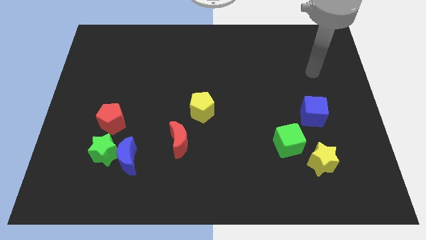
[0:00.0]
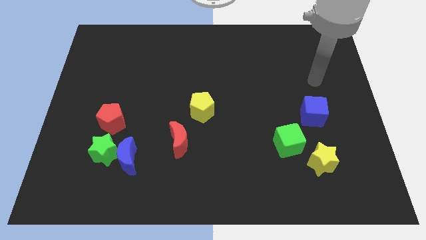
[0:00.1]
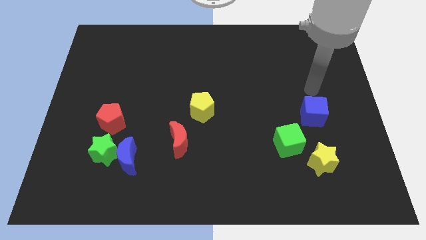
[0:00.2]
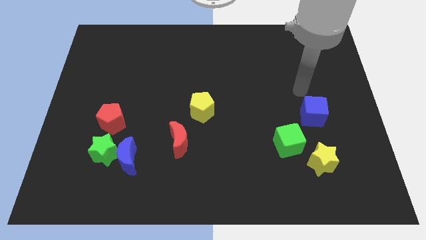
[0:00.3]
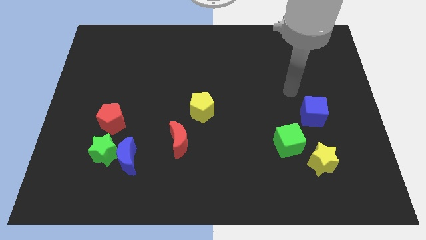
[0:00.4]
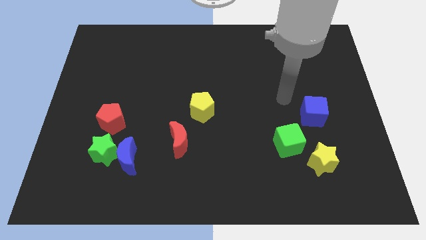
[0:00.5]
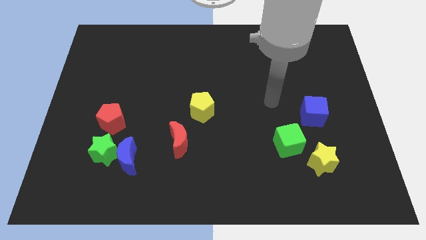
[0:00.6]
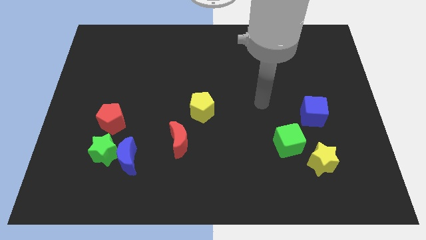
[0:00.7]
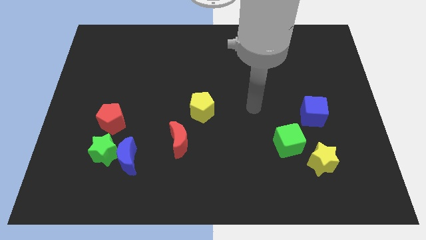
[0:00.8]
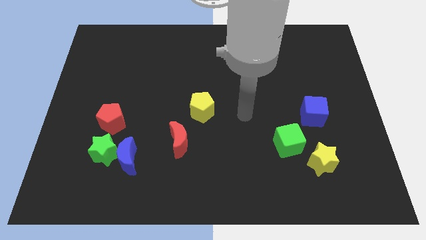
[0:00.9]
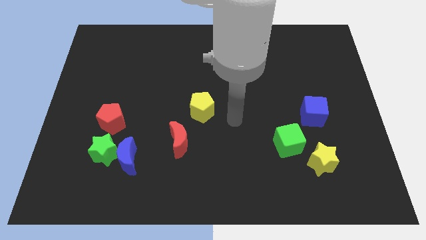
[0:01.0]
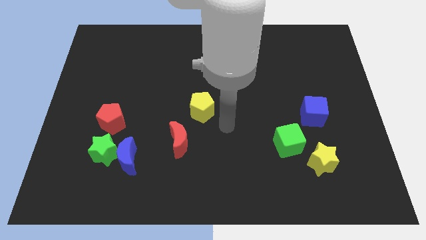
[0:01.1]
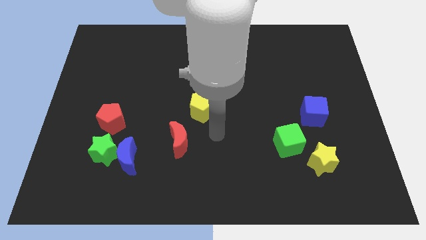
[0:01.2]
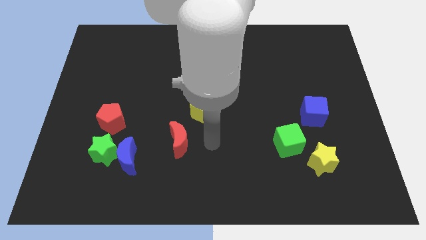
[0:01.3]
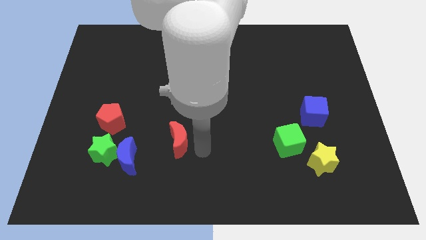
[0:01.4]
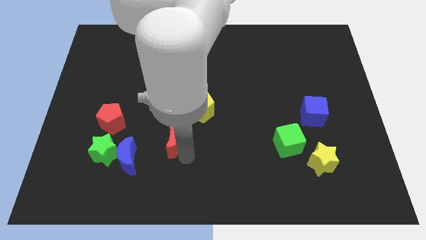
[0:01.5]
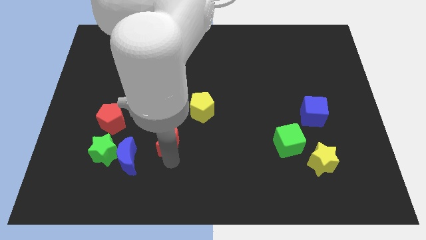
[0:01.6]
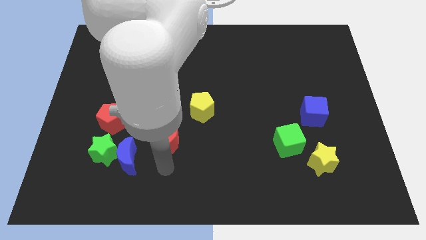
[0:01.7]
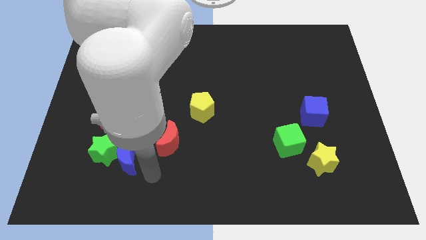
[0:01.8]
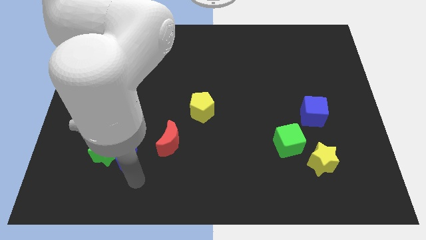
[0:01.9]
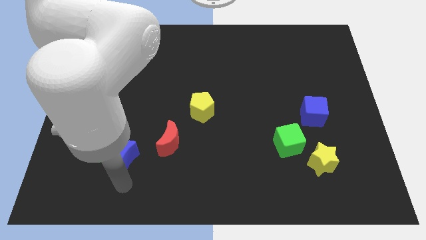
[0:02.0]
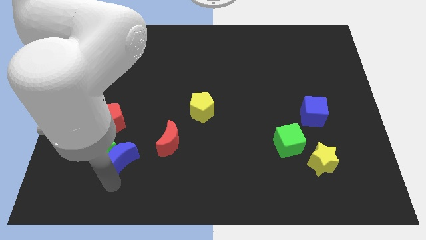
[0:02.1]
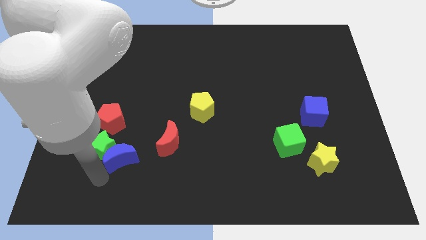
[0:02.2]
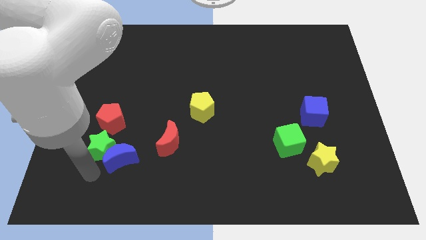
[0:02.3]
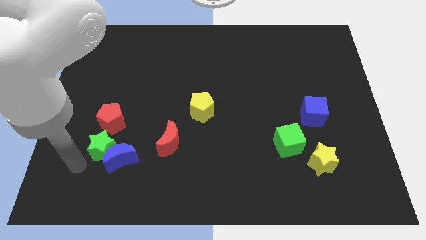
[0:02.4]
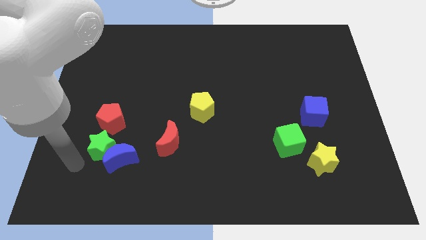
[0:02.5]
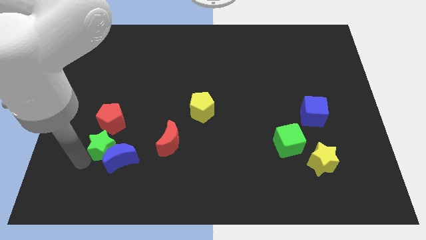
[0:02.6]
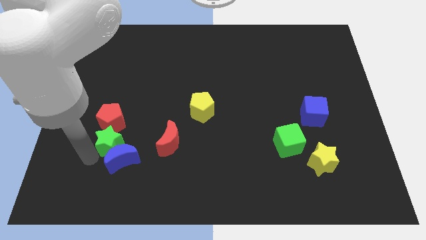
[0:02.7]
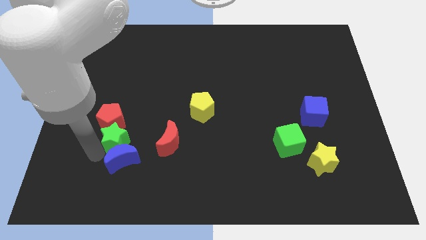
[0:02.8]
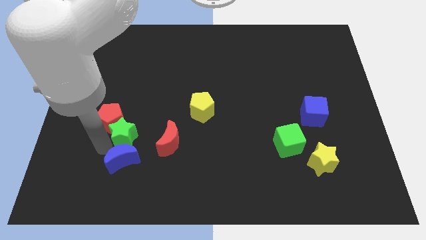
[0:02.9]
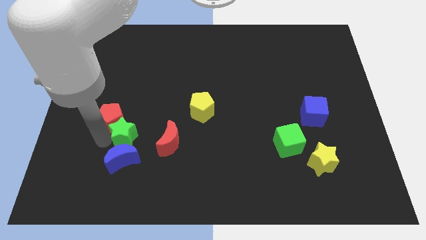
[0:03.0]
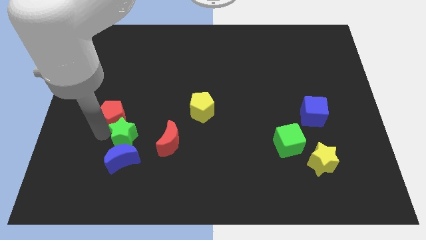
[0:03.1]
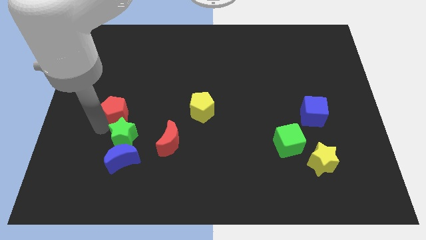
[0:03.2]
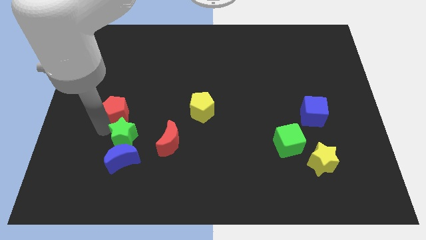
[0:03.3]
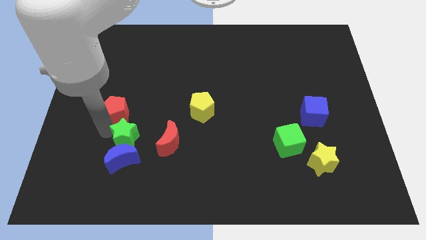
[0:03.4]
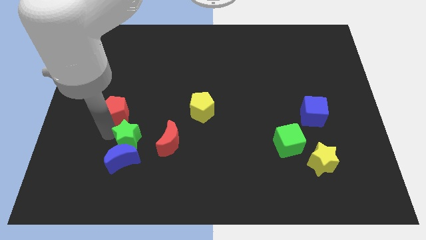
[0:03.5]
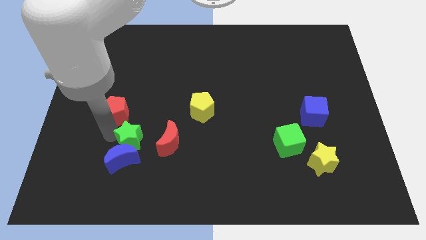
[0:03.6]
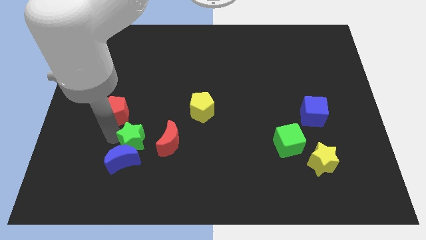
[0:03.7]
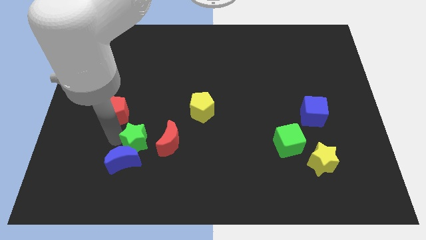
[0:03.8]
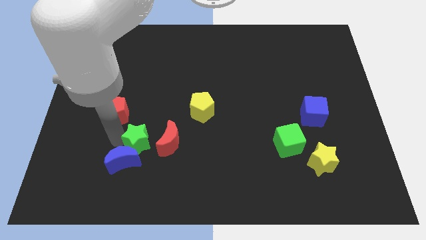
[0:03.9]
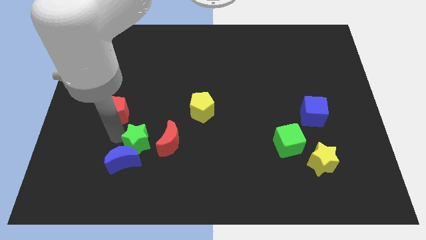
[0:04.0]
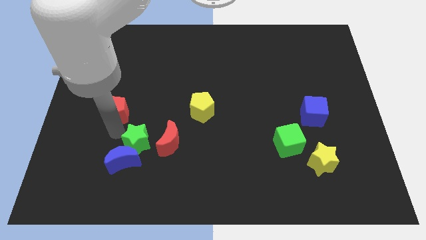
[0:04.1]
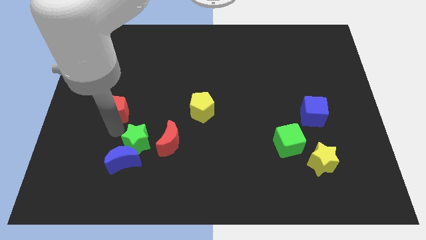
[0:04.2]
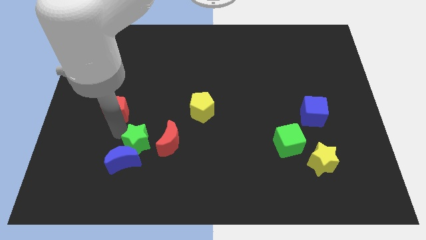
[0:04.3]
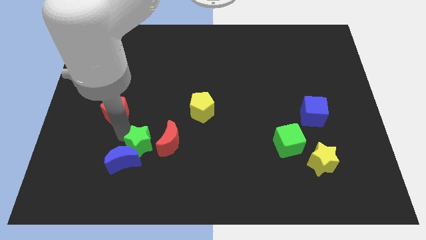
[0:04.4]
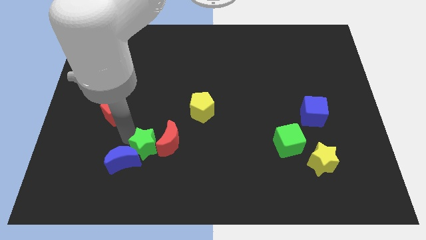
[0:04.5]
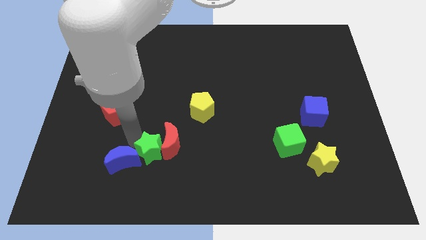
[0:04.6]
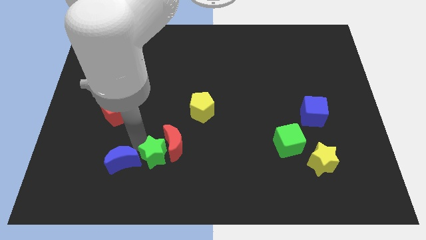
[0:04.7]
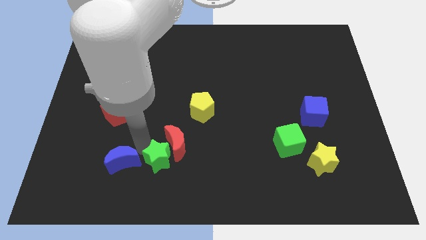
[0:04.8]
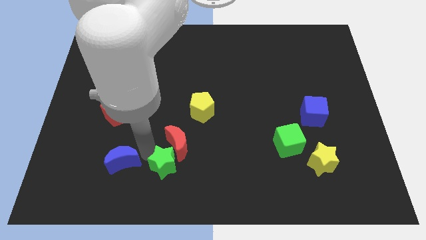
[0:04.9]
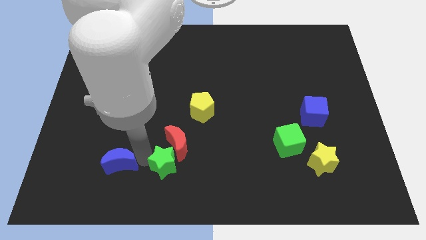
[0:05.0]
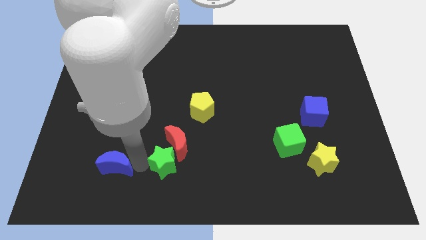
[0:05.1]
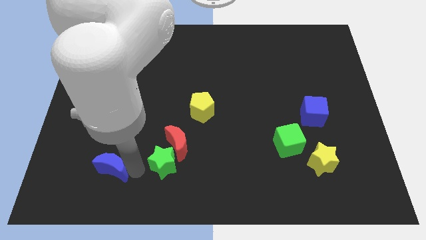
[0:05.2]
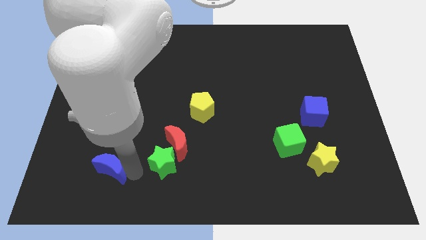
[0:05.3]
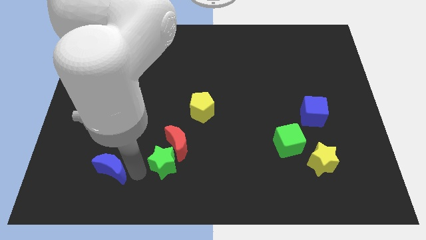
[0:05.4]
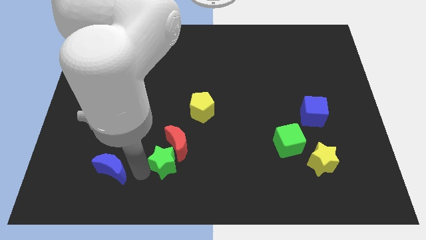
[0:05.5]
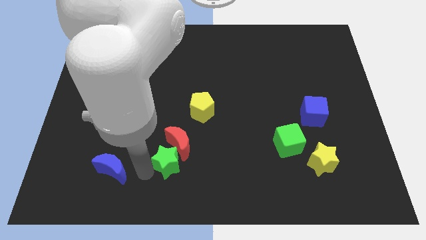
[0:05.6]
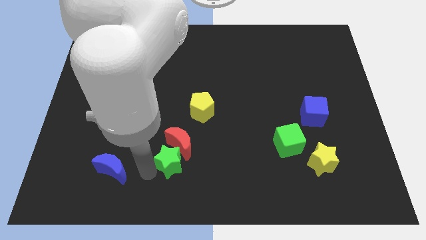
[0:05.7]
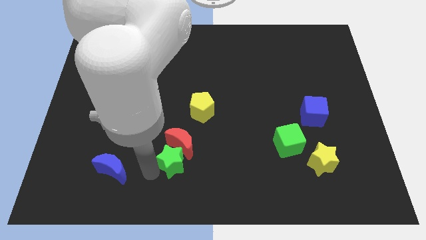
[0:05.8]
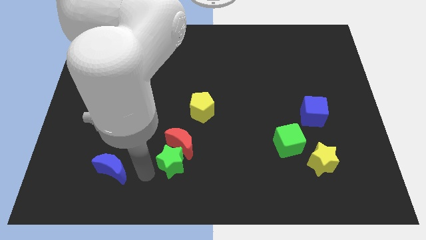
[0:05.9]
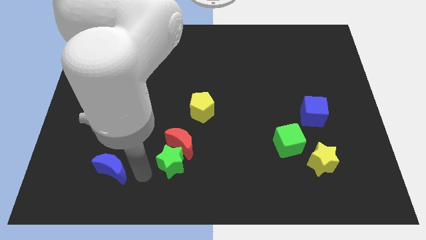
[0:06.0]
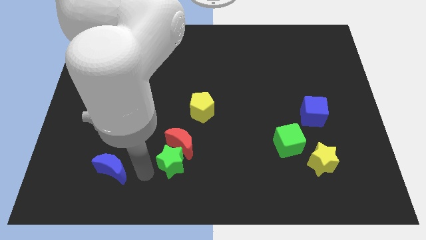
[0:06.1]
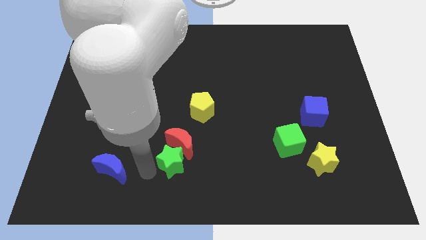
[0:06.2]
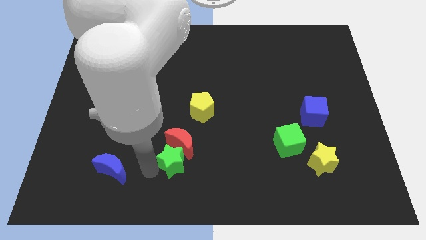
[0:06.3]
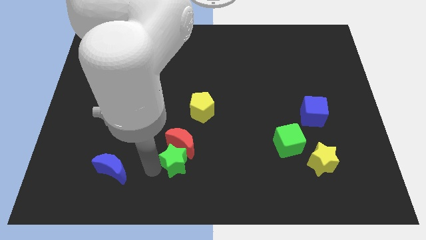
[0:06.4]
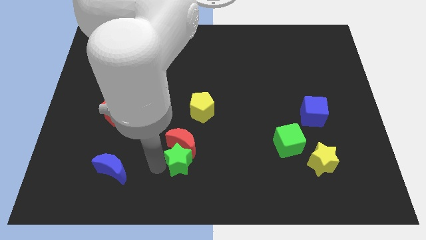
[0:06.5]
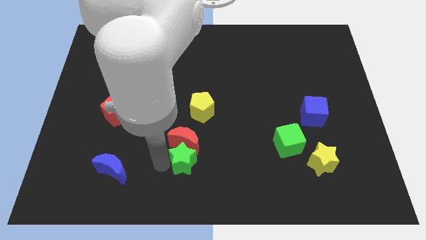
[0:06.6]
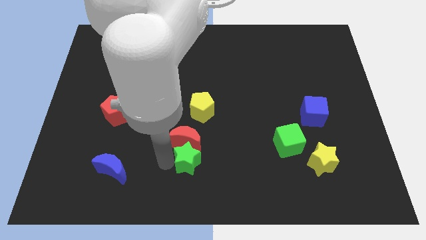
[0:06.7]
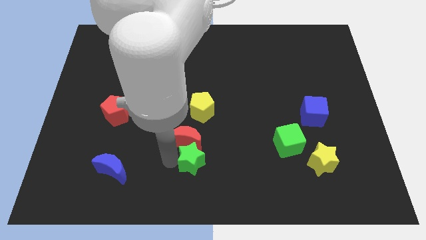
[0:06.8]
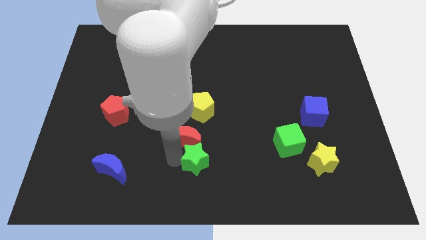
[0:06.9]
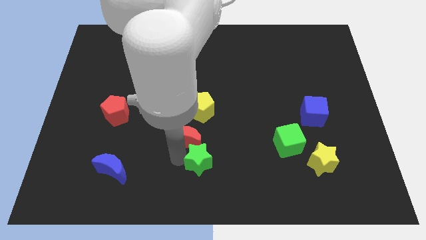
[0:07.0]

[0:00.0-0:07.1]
push the green star to the right

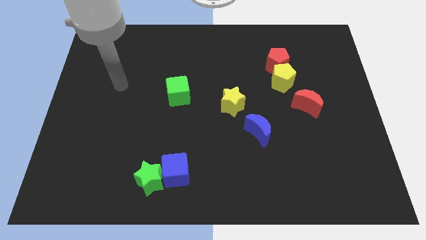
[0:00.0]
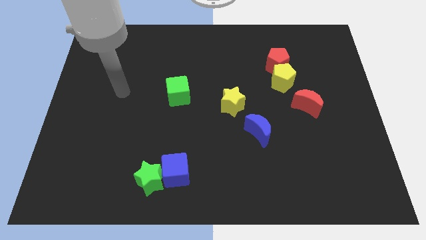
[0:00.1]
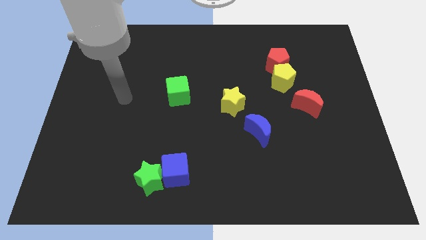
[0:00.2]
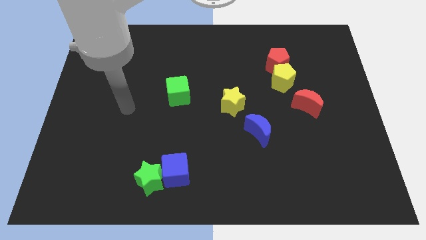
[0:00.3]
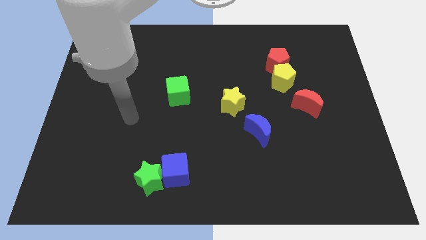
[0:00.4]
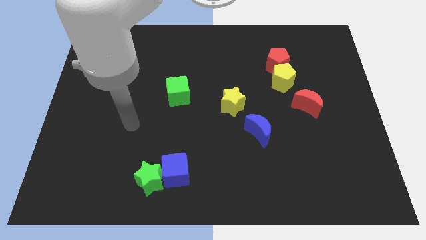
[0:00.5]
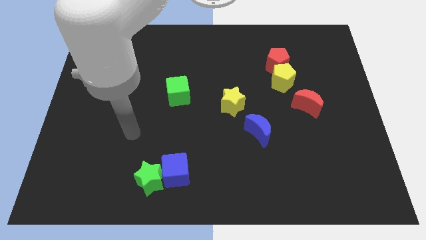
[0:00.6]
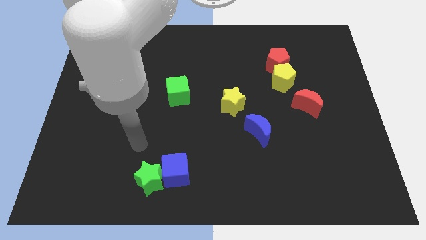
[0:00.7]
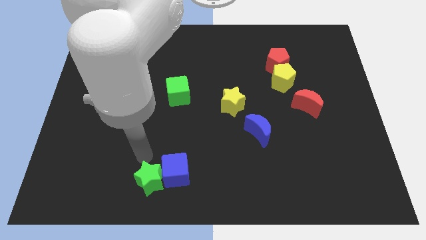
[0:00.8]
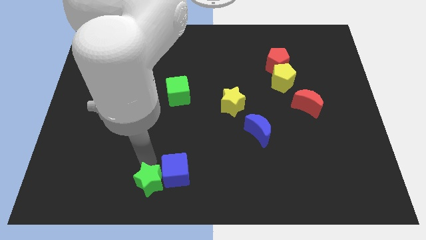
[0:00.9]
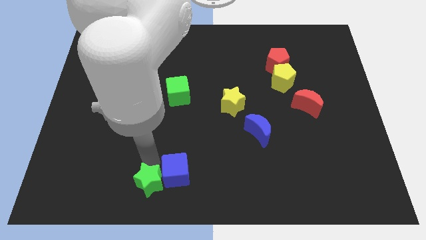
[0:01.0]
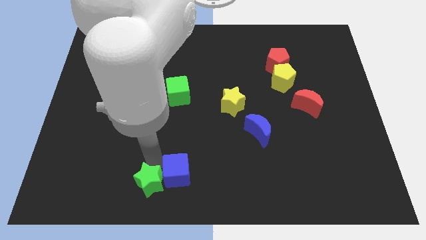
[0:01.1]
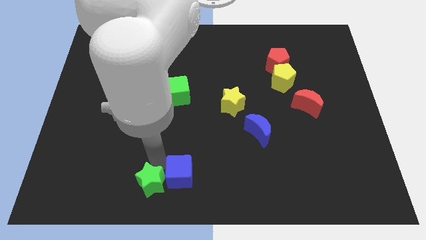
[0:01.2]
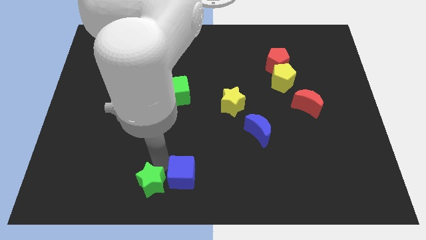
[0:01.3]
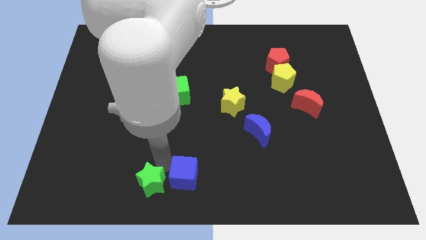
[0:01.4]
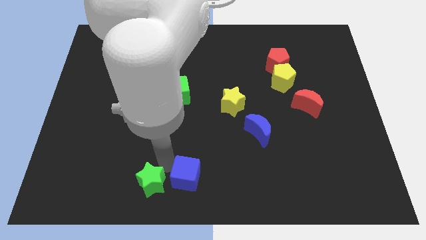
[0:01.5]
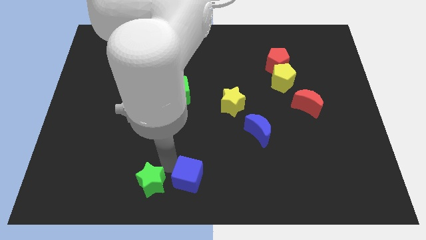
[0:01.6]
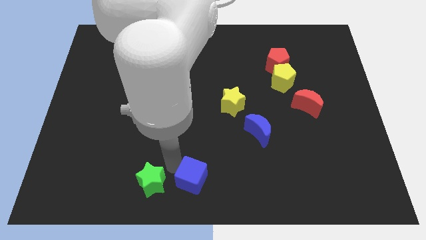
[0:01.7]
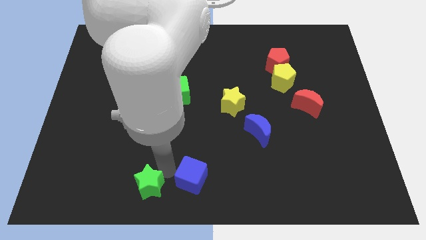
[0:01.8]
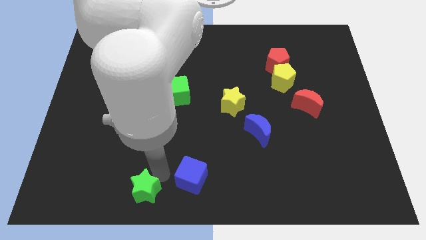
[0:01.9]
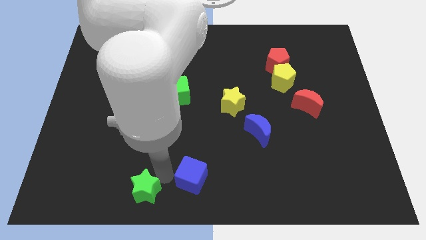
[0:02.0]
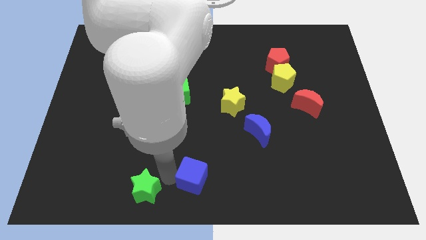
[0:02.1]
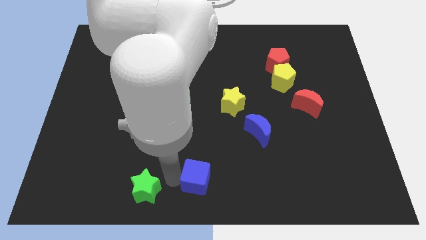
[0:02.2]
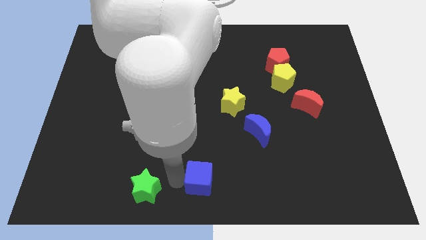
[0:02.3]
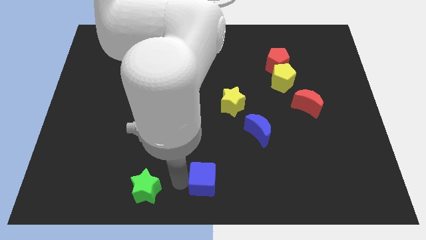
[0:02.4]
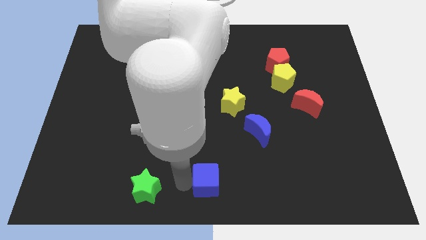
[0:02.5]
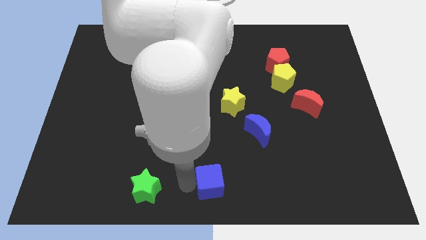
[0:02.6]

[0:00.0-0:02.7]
push the blue cube right a little bit
